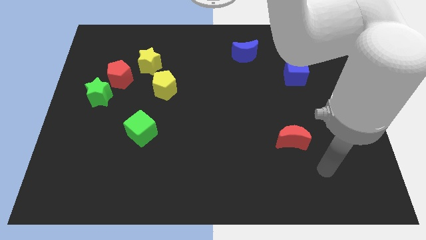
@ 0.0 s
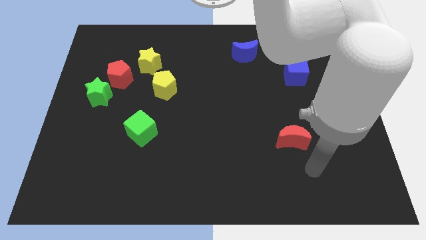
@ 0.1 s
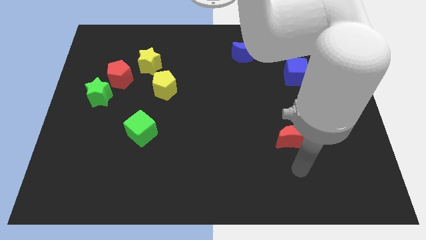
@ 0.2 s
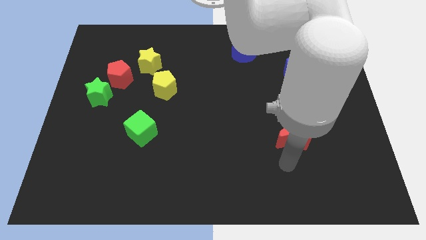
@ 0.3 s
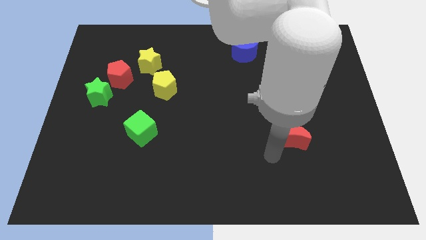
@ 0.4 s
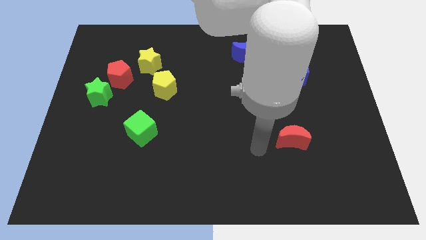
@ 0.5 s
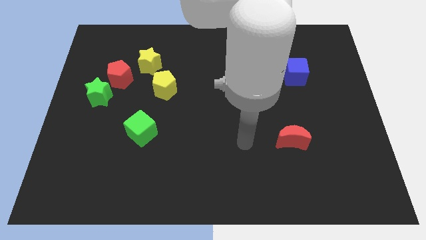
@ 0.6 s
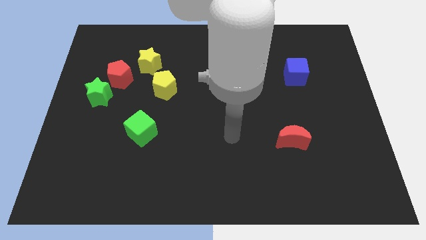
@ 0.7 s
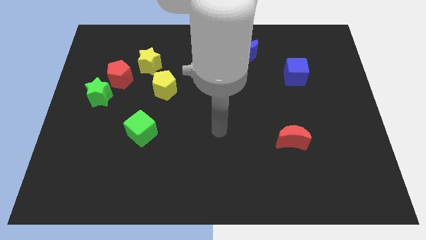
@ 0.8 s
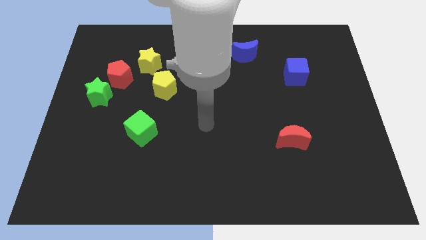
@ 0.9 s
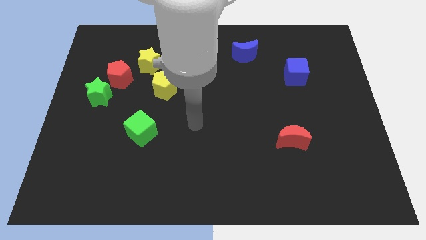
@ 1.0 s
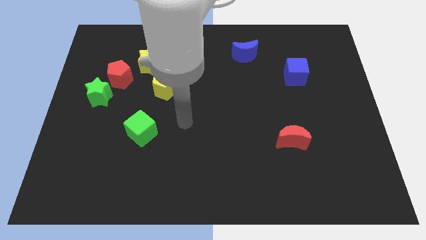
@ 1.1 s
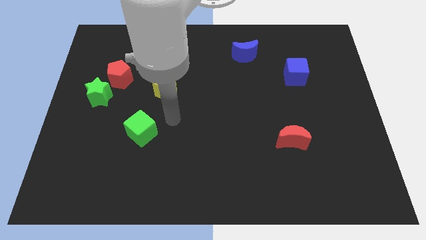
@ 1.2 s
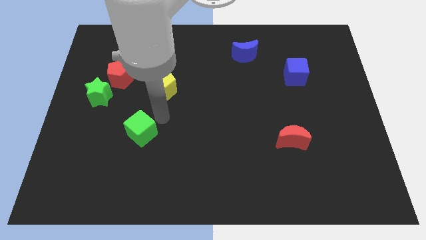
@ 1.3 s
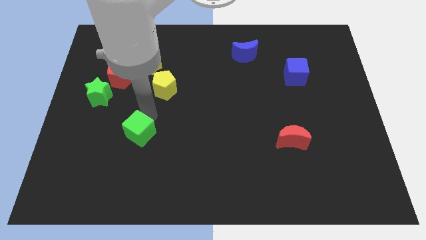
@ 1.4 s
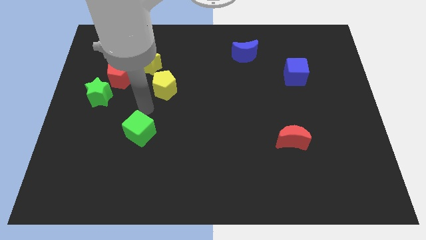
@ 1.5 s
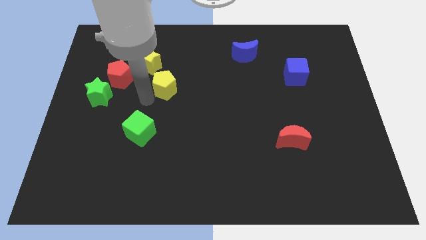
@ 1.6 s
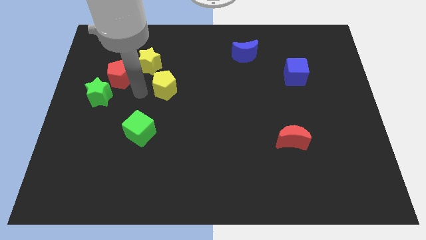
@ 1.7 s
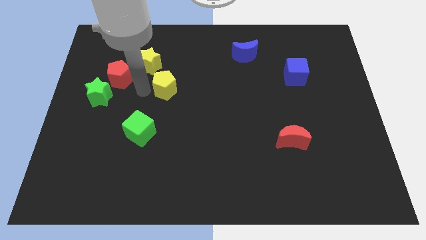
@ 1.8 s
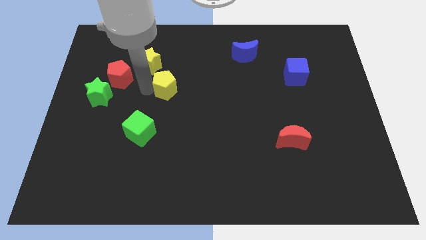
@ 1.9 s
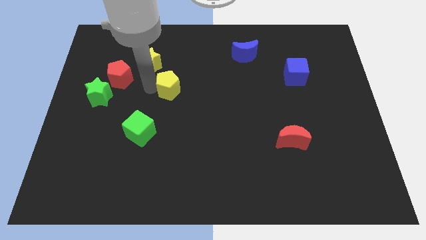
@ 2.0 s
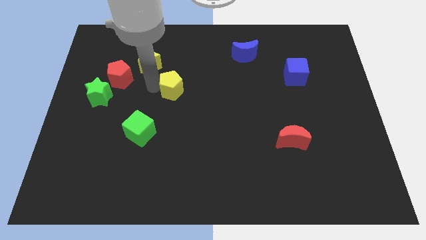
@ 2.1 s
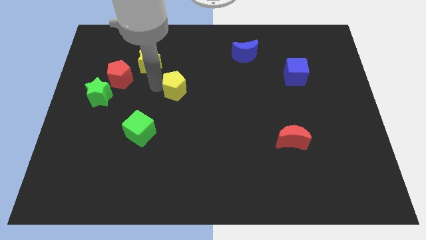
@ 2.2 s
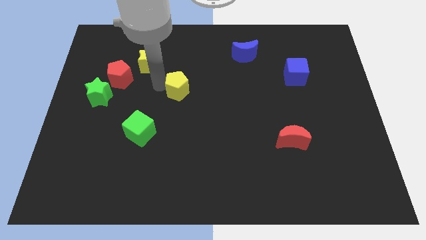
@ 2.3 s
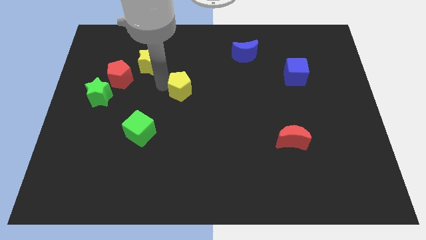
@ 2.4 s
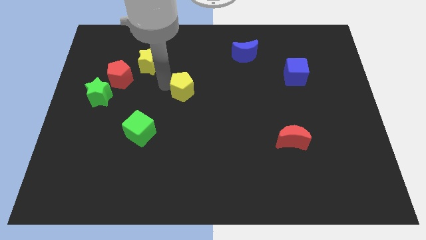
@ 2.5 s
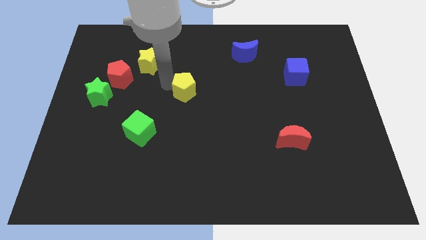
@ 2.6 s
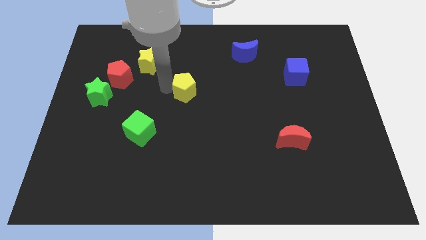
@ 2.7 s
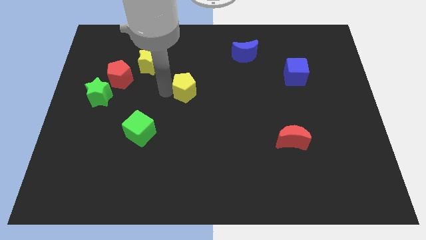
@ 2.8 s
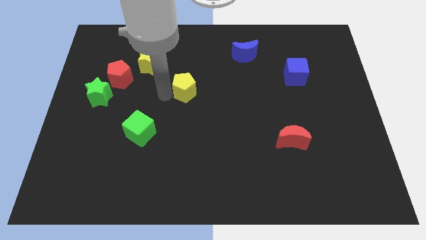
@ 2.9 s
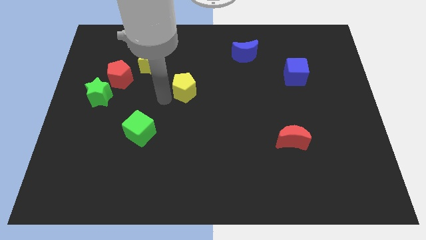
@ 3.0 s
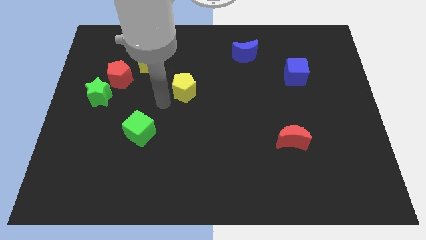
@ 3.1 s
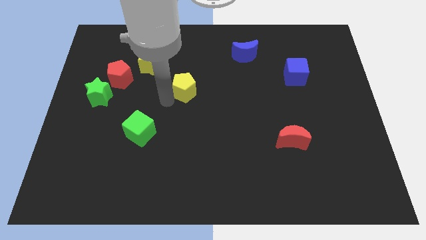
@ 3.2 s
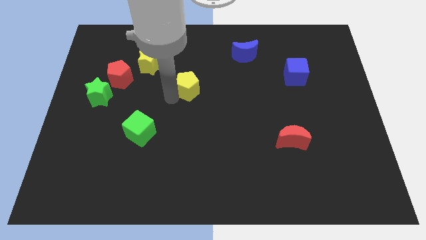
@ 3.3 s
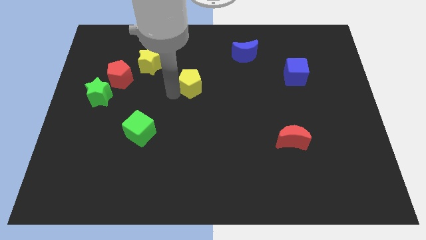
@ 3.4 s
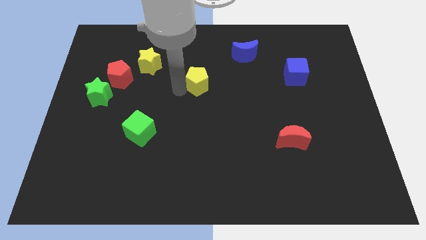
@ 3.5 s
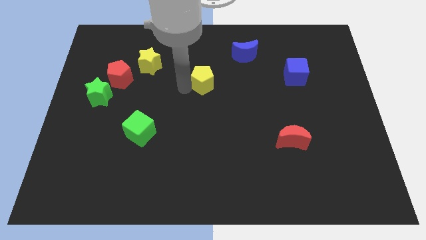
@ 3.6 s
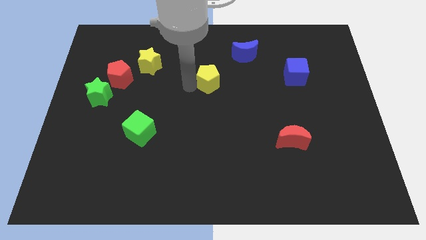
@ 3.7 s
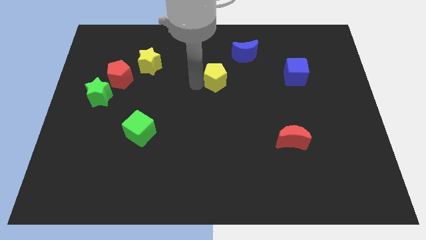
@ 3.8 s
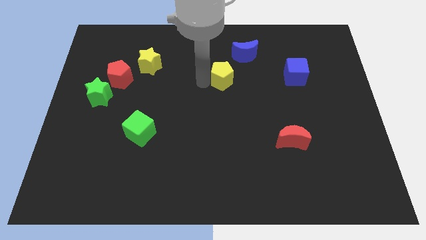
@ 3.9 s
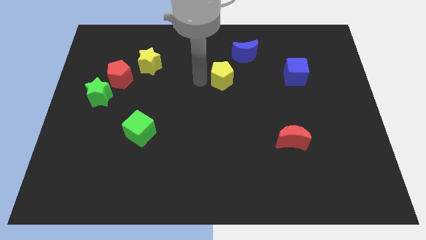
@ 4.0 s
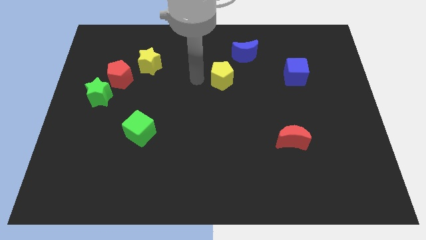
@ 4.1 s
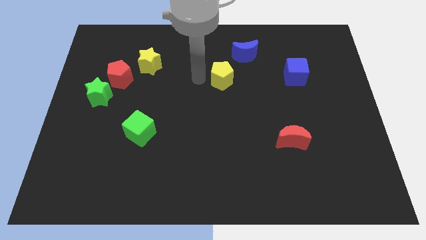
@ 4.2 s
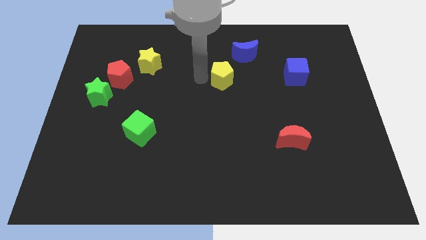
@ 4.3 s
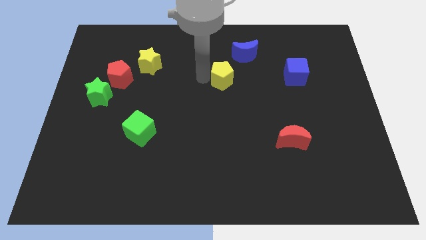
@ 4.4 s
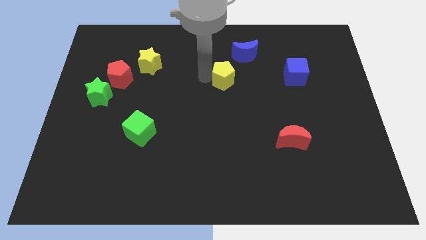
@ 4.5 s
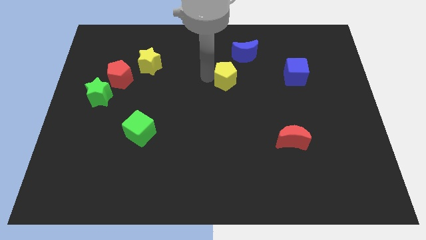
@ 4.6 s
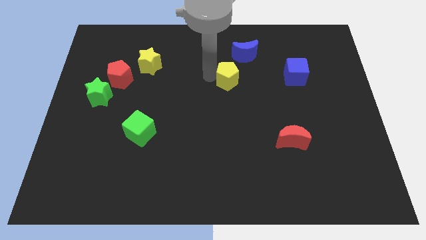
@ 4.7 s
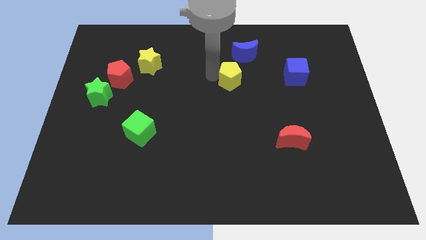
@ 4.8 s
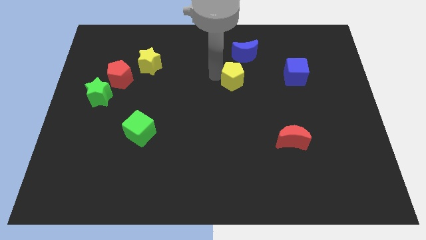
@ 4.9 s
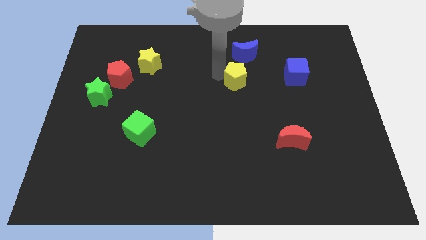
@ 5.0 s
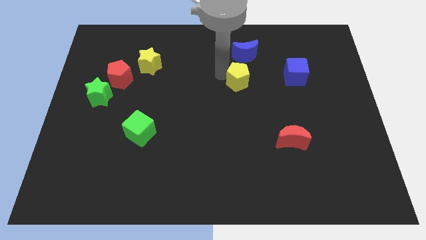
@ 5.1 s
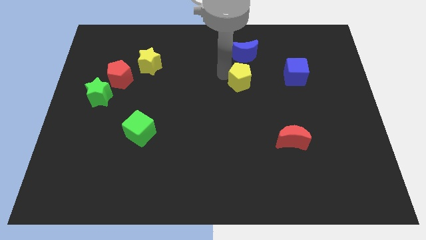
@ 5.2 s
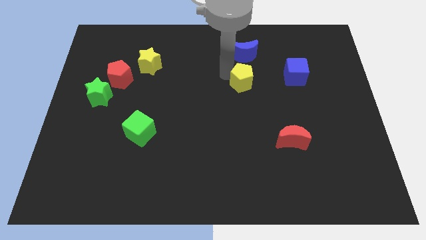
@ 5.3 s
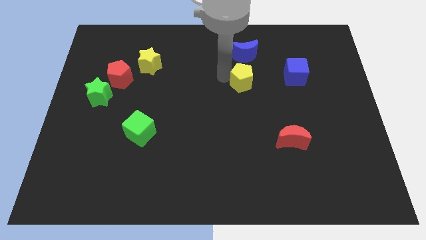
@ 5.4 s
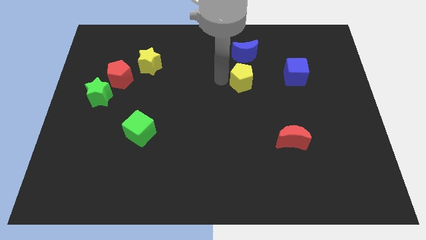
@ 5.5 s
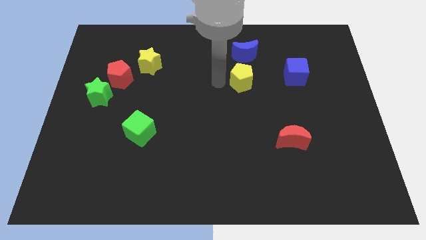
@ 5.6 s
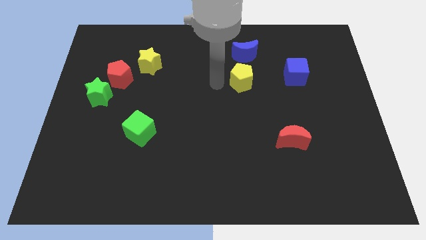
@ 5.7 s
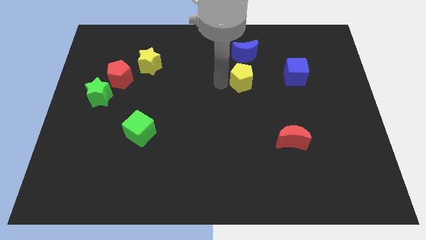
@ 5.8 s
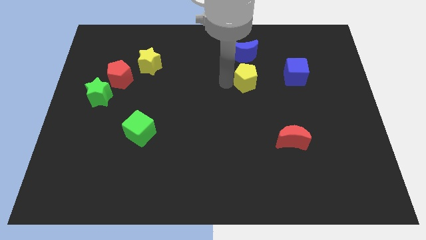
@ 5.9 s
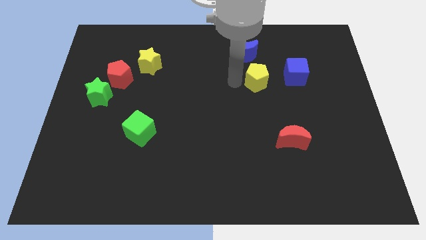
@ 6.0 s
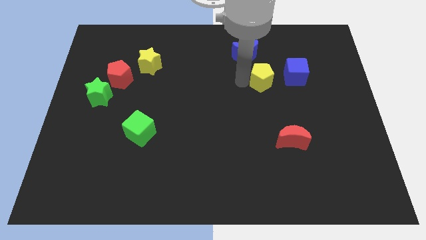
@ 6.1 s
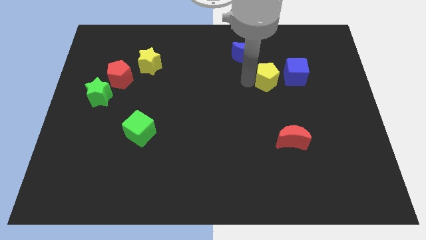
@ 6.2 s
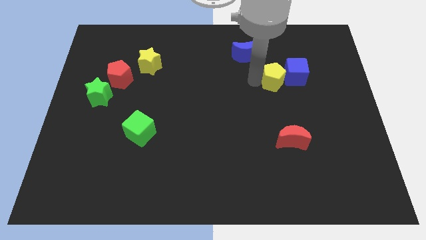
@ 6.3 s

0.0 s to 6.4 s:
put the yellow pentagon close to the blue cube

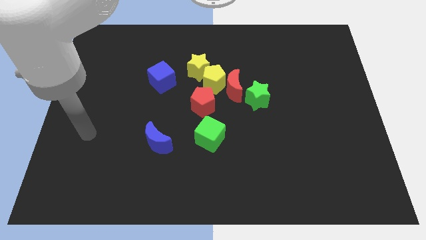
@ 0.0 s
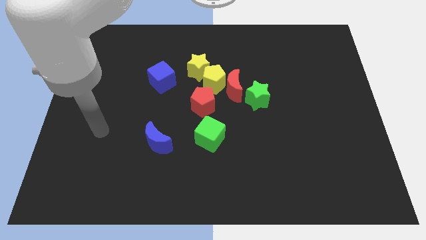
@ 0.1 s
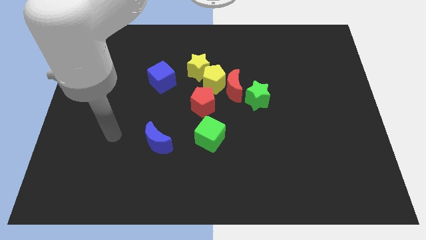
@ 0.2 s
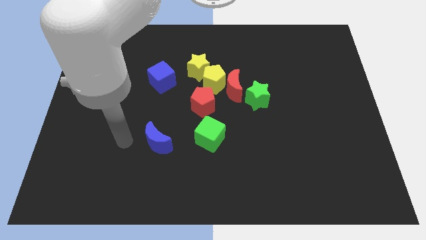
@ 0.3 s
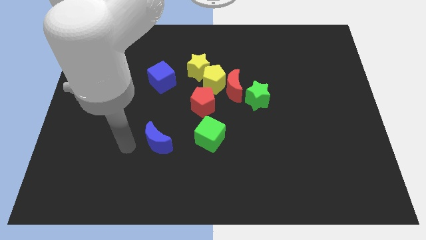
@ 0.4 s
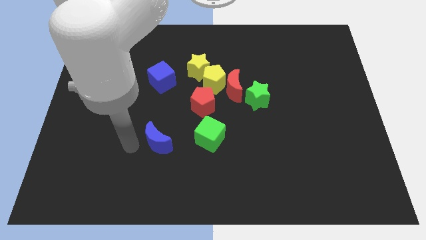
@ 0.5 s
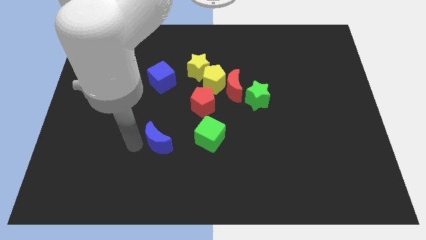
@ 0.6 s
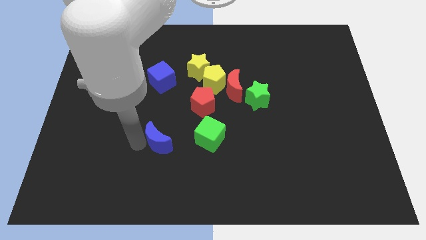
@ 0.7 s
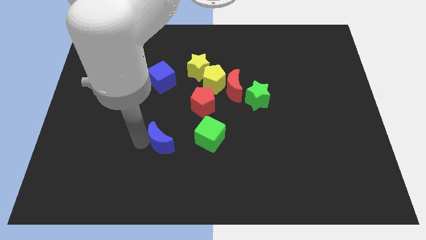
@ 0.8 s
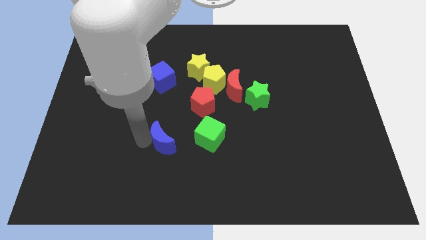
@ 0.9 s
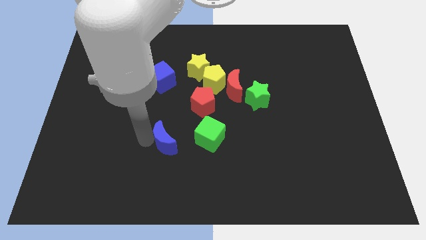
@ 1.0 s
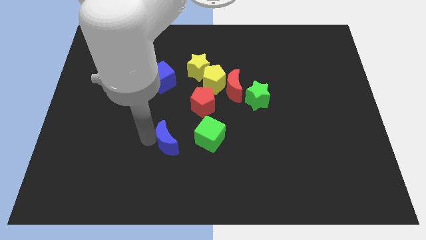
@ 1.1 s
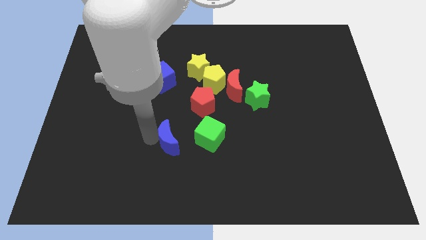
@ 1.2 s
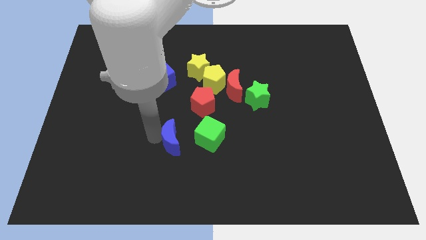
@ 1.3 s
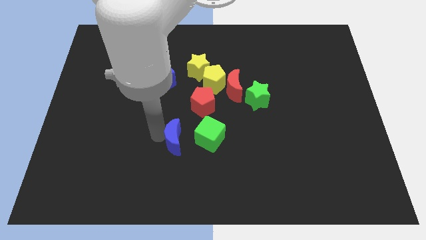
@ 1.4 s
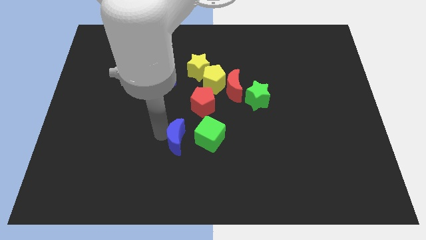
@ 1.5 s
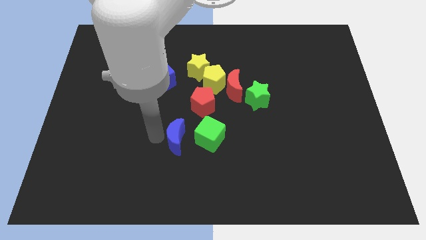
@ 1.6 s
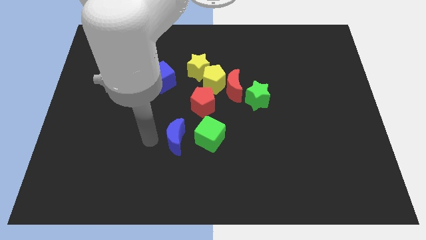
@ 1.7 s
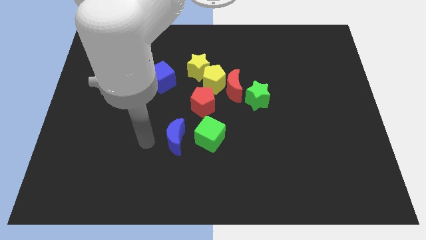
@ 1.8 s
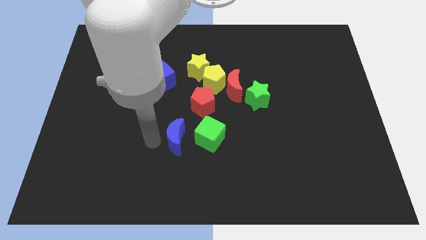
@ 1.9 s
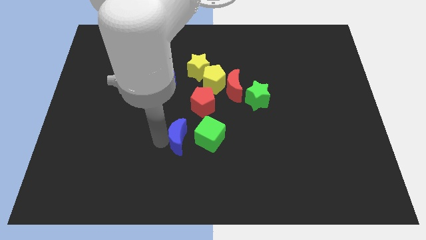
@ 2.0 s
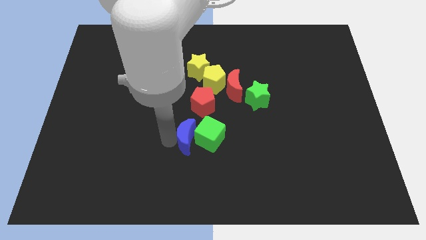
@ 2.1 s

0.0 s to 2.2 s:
slide the blue moon to the green cube
